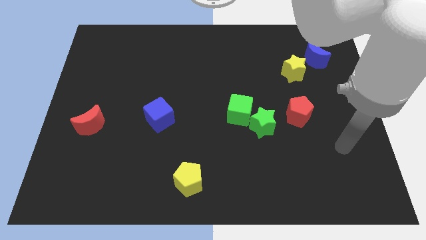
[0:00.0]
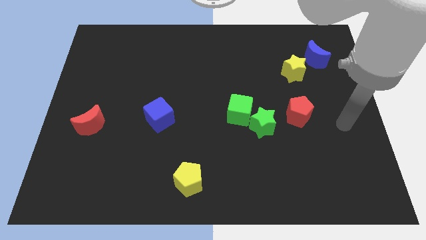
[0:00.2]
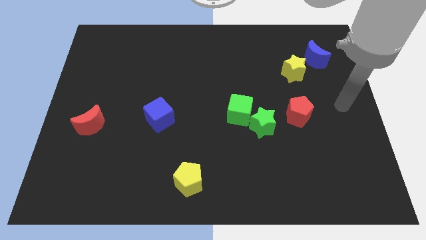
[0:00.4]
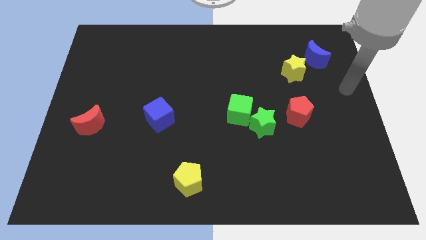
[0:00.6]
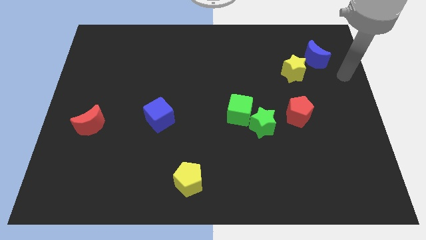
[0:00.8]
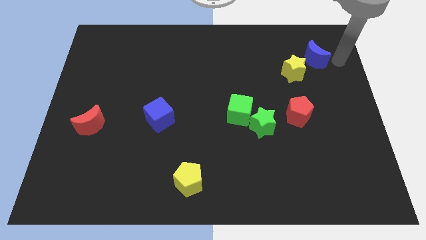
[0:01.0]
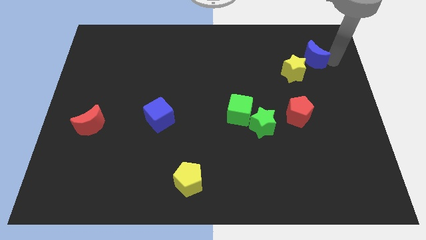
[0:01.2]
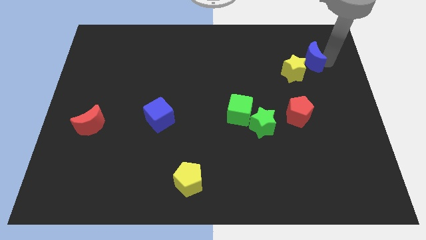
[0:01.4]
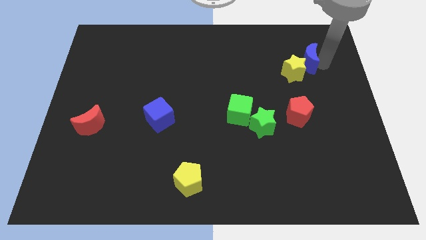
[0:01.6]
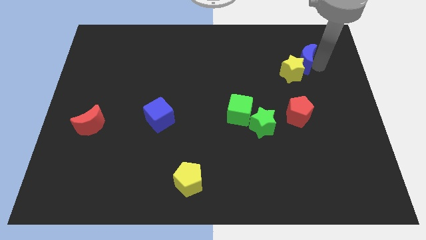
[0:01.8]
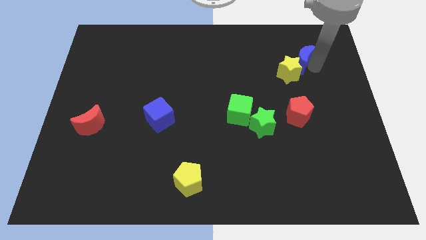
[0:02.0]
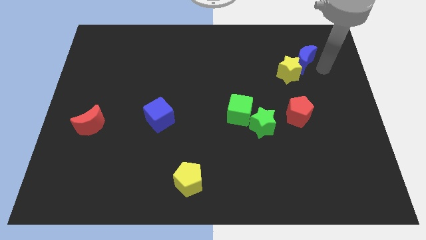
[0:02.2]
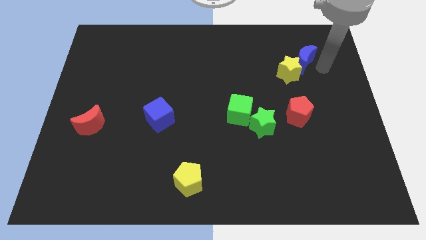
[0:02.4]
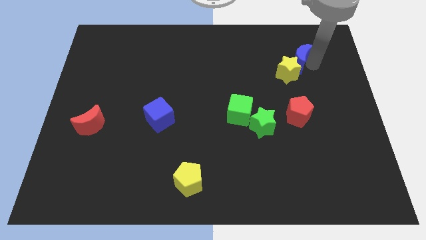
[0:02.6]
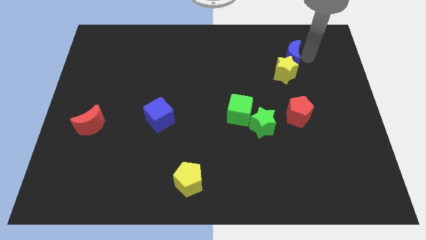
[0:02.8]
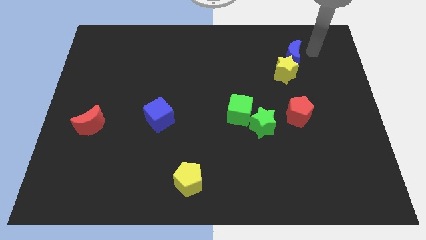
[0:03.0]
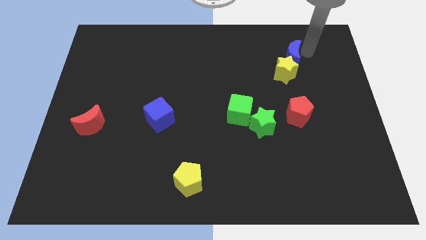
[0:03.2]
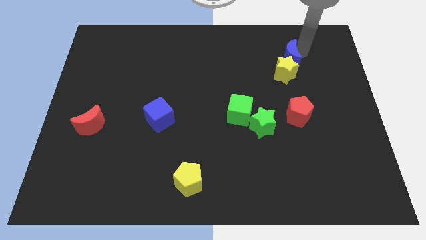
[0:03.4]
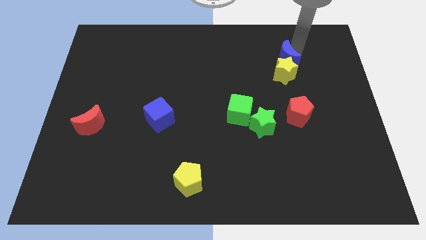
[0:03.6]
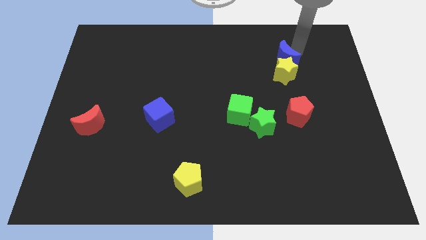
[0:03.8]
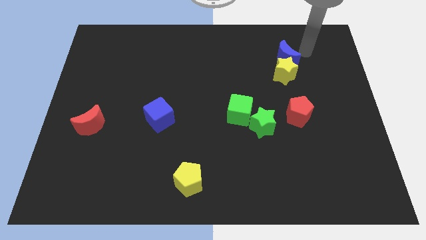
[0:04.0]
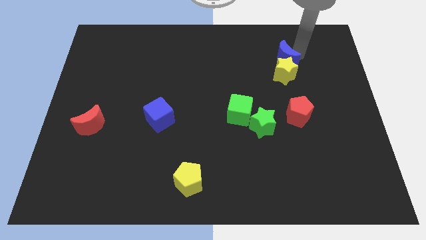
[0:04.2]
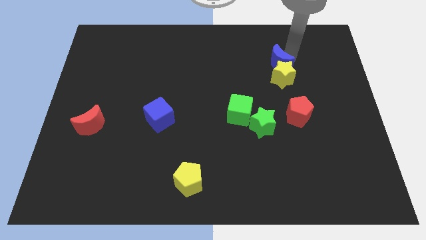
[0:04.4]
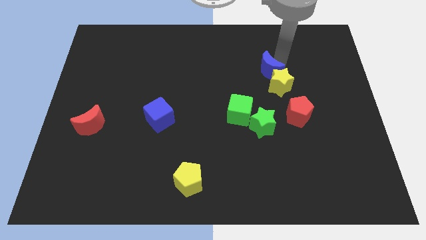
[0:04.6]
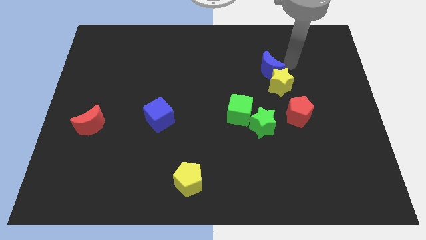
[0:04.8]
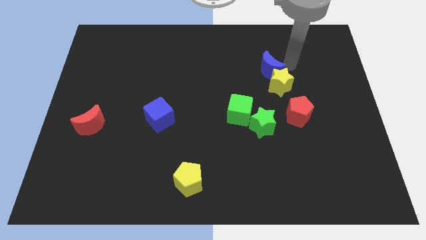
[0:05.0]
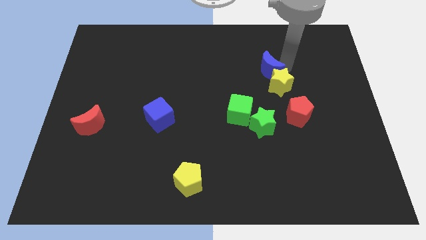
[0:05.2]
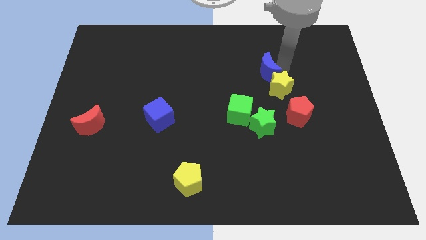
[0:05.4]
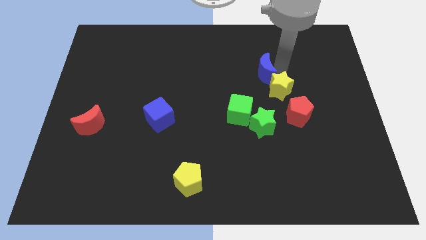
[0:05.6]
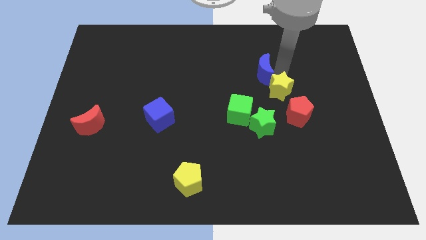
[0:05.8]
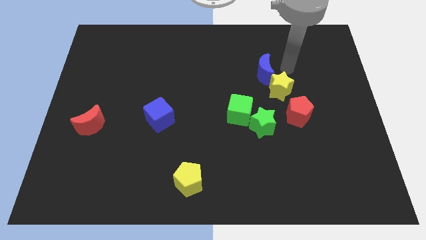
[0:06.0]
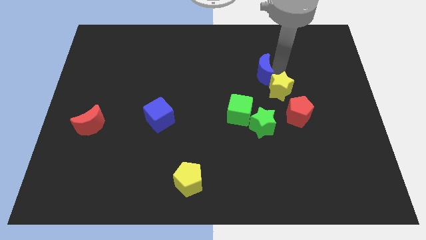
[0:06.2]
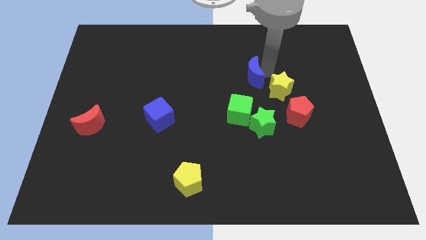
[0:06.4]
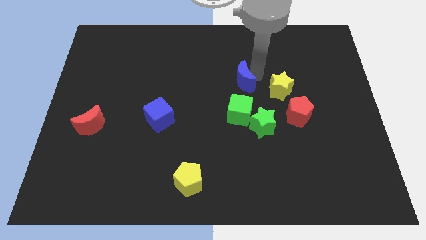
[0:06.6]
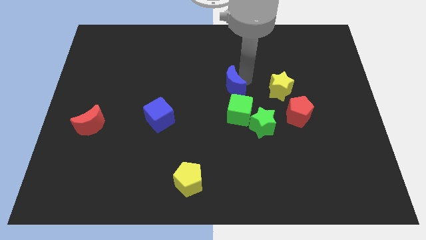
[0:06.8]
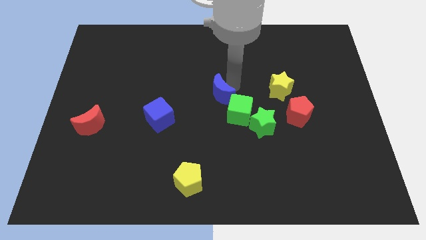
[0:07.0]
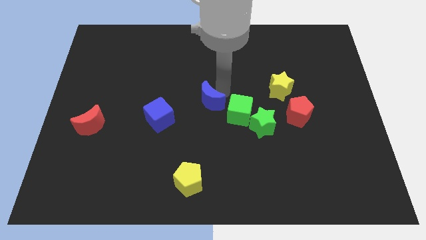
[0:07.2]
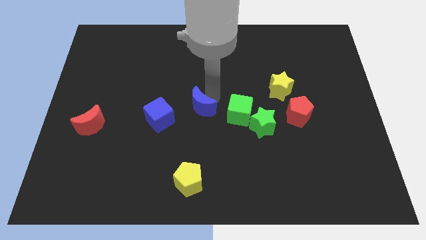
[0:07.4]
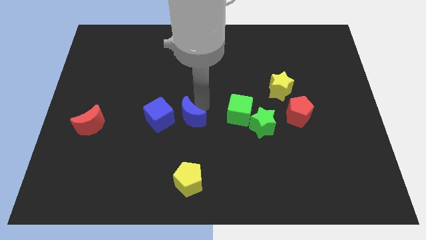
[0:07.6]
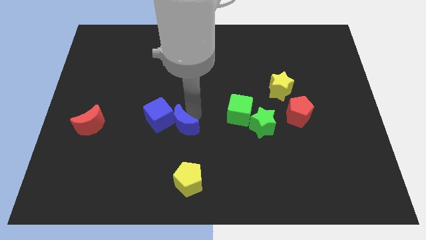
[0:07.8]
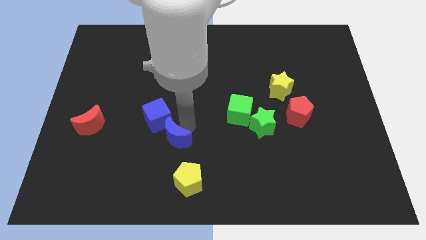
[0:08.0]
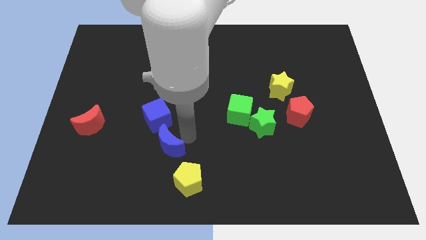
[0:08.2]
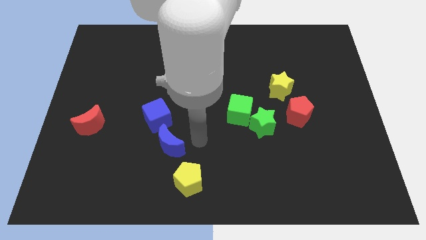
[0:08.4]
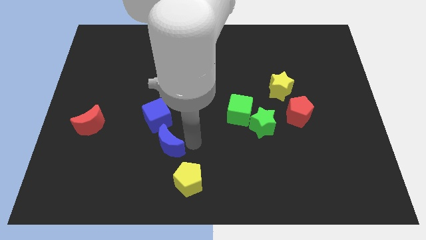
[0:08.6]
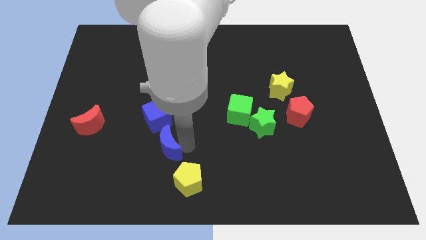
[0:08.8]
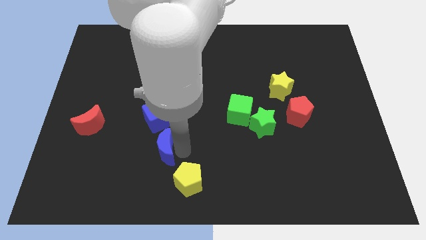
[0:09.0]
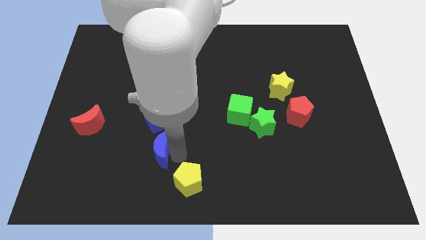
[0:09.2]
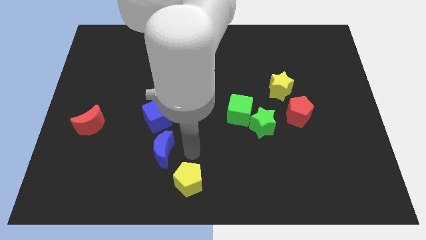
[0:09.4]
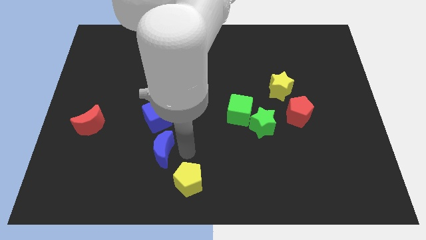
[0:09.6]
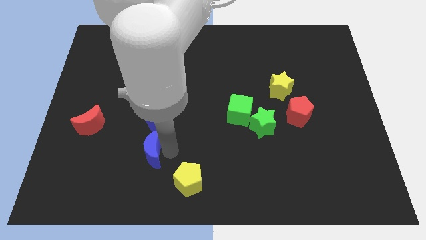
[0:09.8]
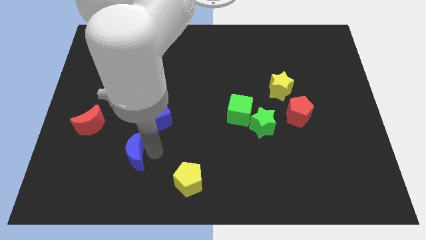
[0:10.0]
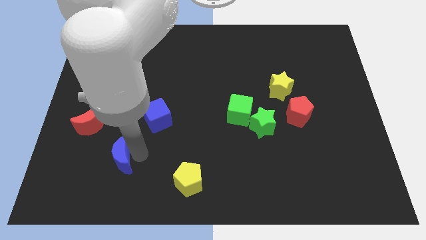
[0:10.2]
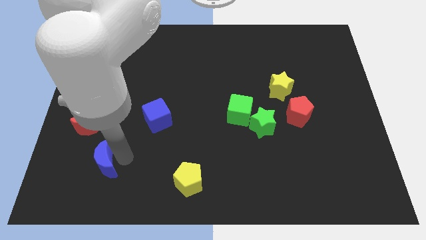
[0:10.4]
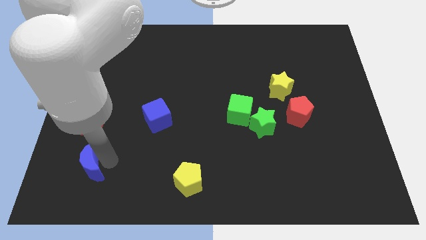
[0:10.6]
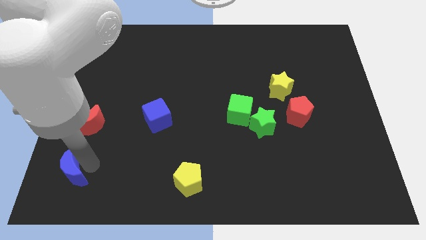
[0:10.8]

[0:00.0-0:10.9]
move the blue moon to the bottom left

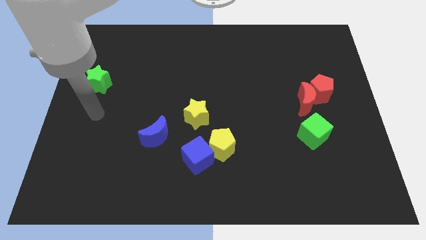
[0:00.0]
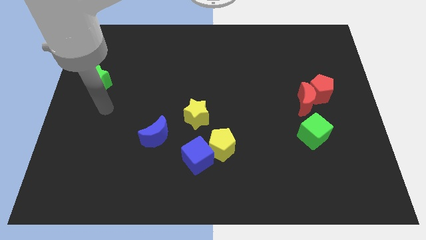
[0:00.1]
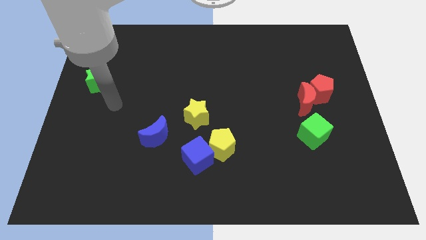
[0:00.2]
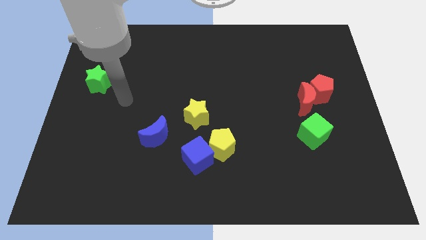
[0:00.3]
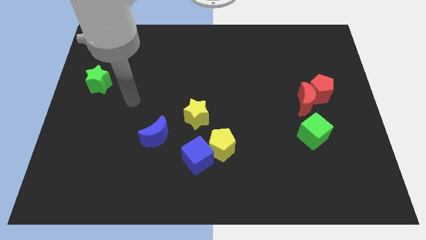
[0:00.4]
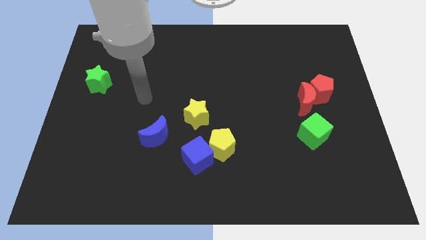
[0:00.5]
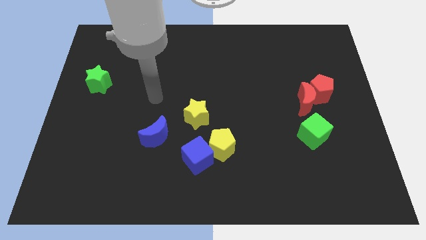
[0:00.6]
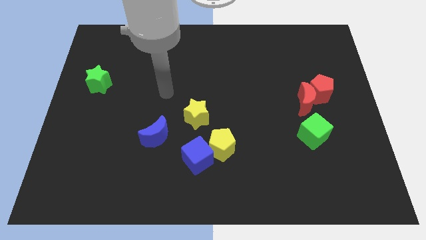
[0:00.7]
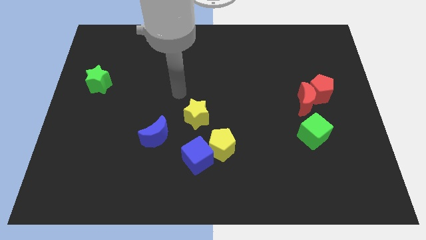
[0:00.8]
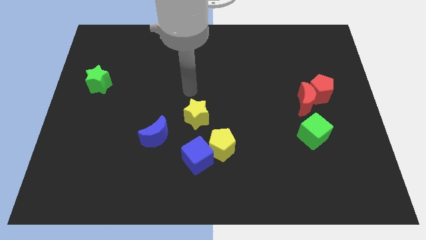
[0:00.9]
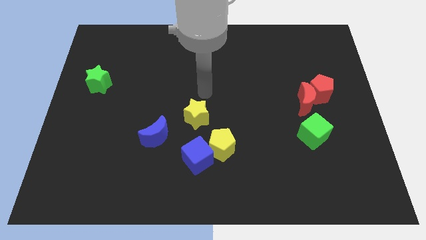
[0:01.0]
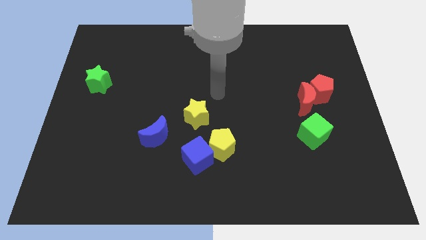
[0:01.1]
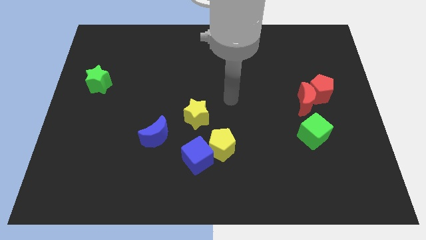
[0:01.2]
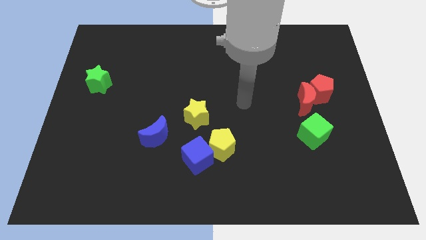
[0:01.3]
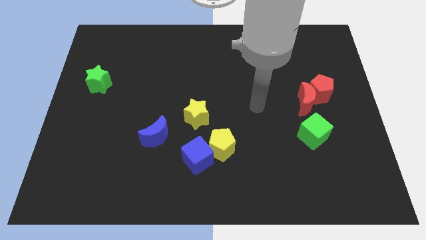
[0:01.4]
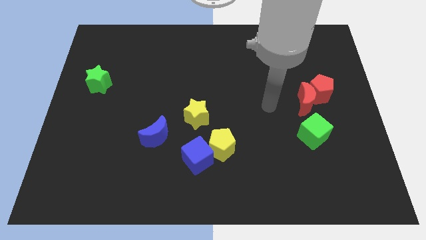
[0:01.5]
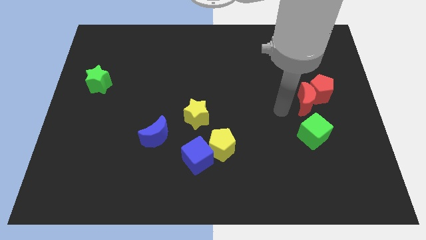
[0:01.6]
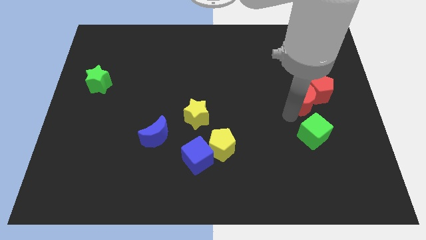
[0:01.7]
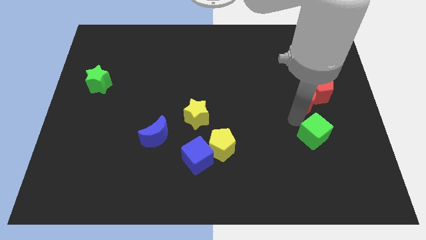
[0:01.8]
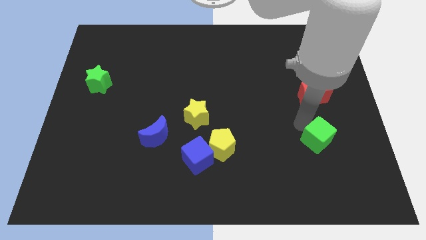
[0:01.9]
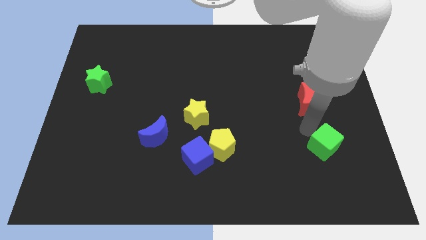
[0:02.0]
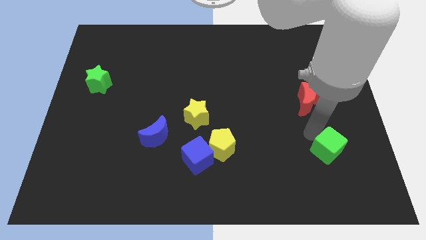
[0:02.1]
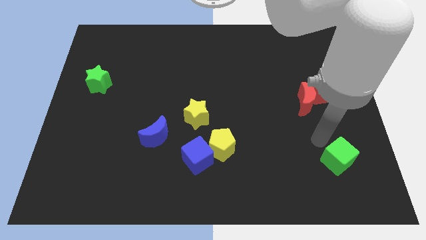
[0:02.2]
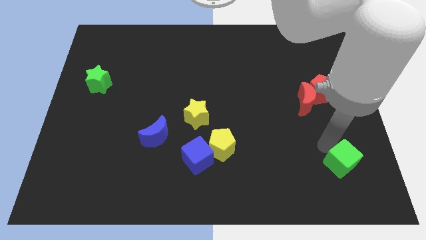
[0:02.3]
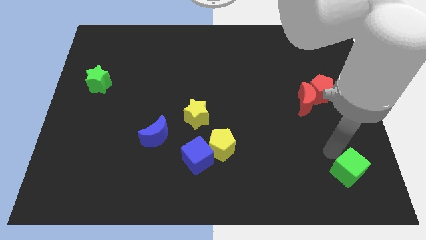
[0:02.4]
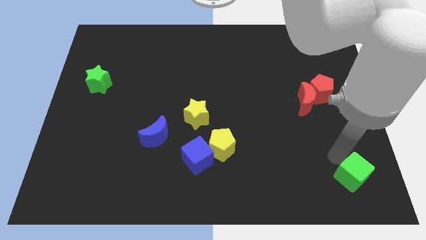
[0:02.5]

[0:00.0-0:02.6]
push the green cube to the bottom right corner
